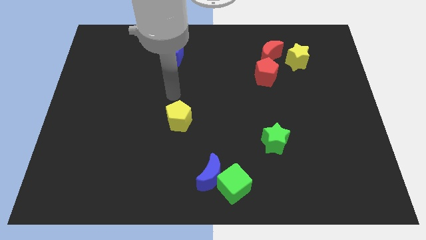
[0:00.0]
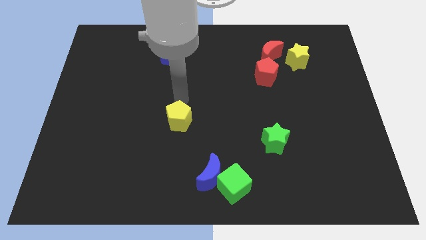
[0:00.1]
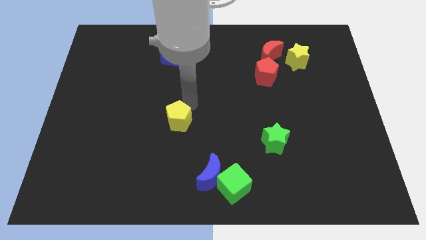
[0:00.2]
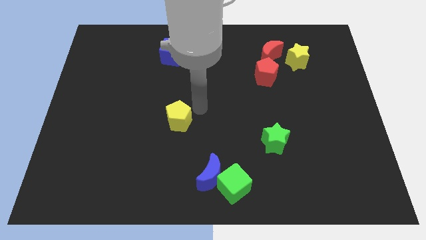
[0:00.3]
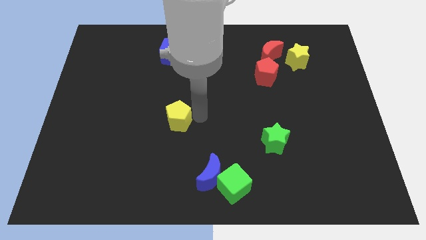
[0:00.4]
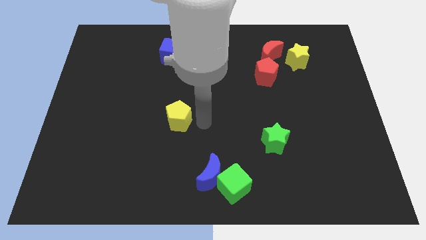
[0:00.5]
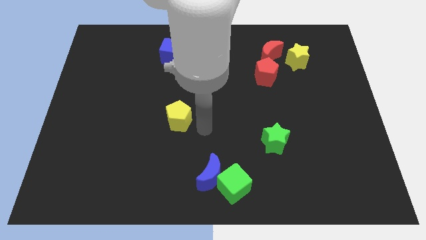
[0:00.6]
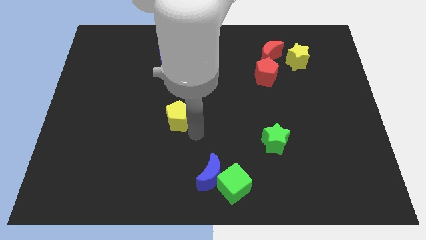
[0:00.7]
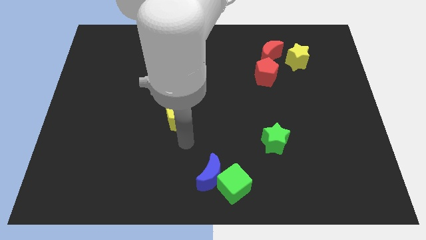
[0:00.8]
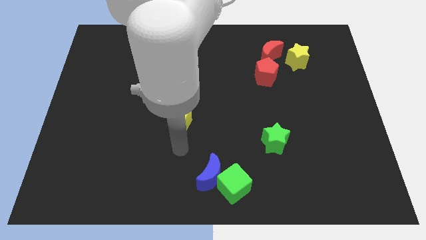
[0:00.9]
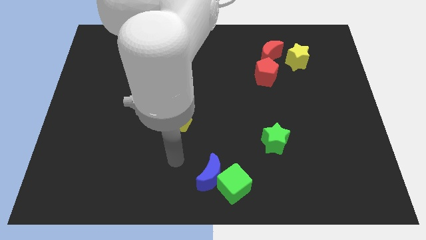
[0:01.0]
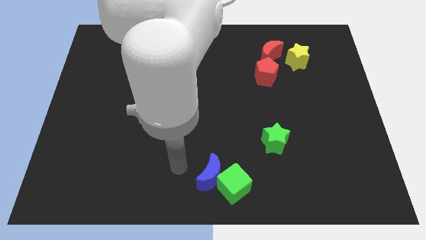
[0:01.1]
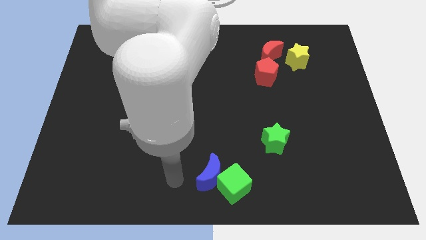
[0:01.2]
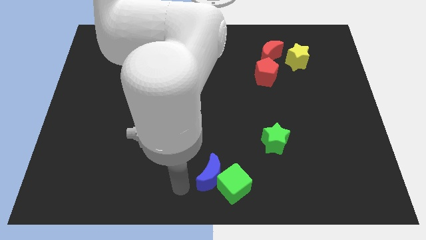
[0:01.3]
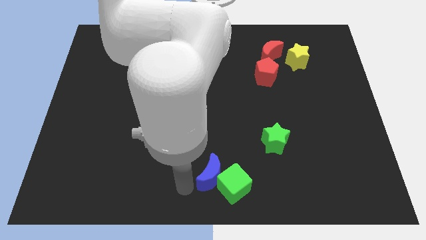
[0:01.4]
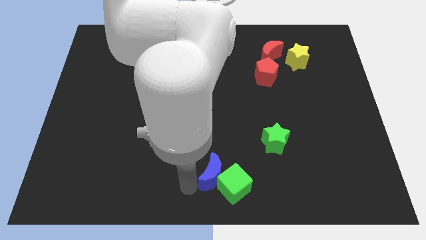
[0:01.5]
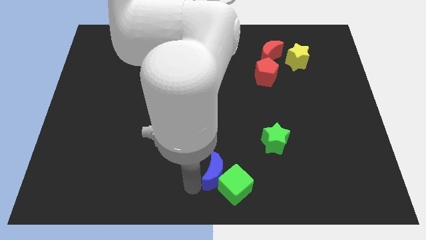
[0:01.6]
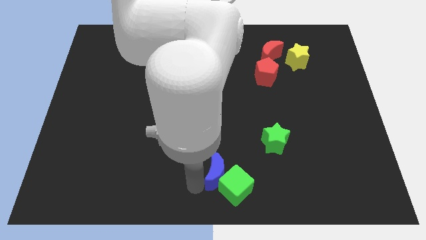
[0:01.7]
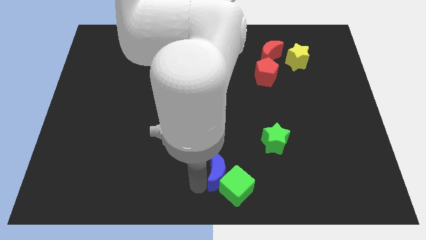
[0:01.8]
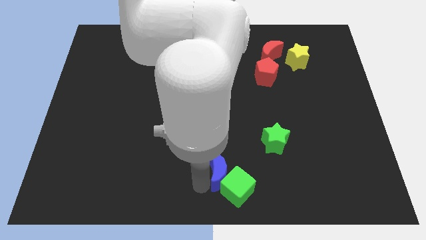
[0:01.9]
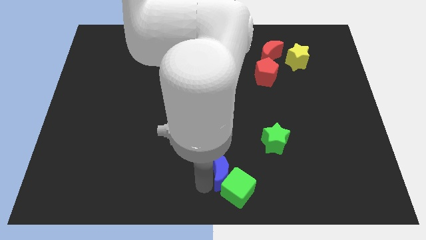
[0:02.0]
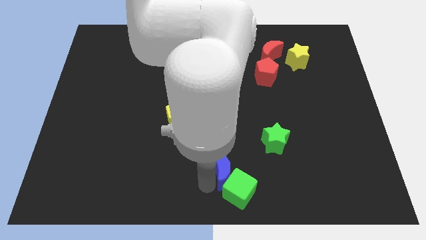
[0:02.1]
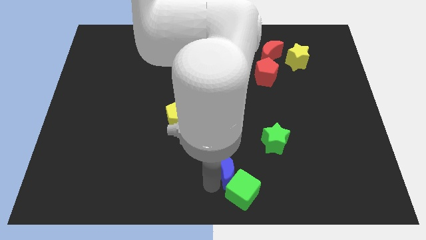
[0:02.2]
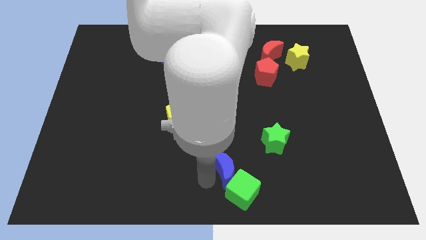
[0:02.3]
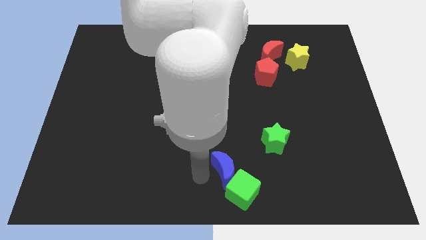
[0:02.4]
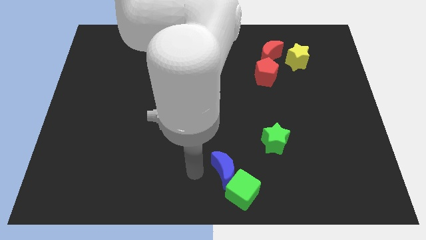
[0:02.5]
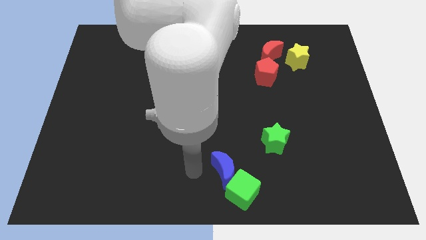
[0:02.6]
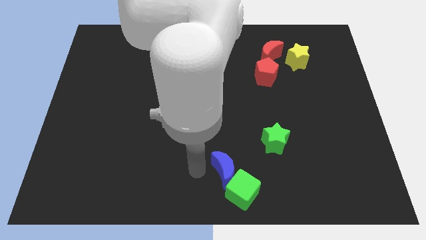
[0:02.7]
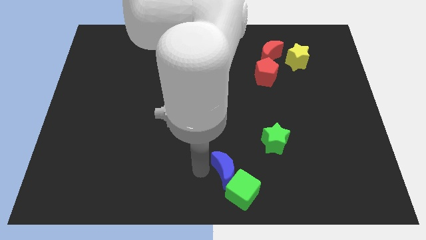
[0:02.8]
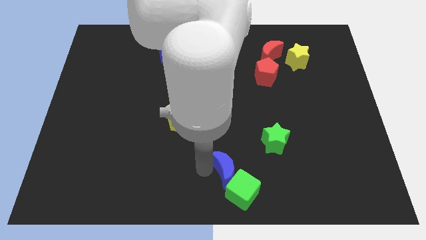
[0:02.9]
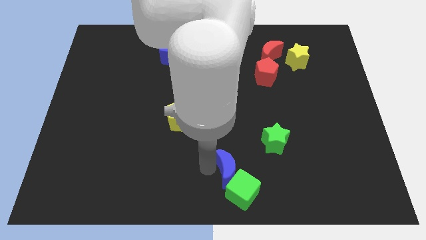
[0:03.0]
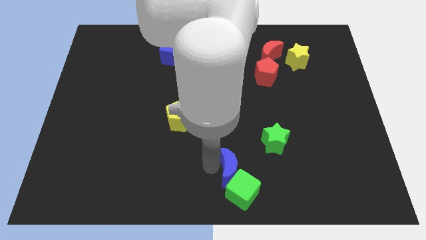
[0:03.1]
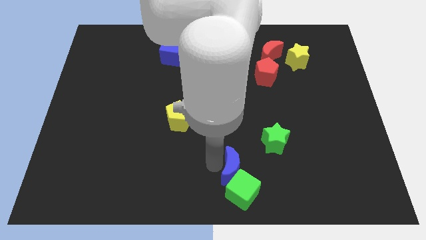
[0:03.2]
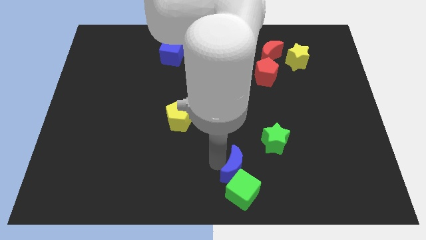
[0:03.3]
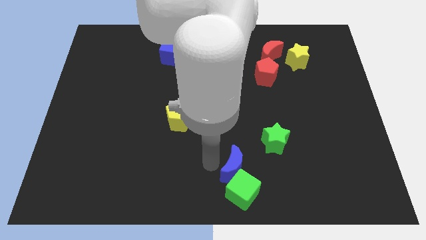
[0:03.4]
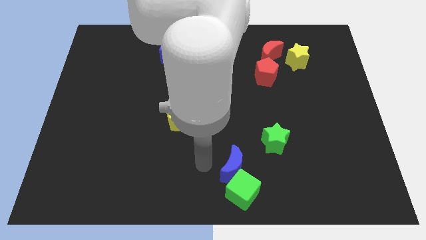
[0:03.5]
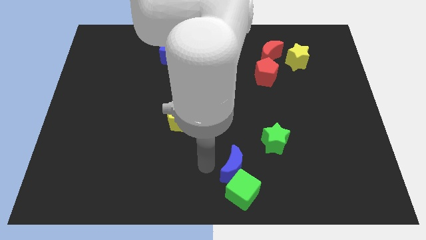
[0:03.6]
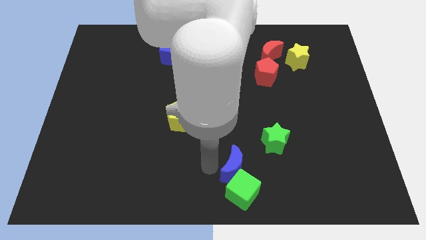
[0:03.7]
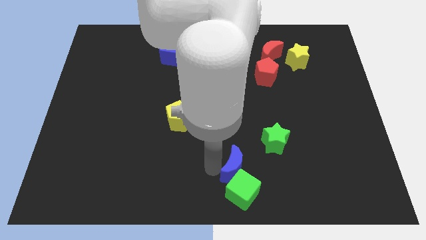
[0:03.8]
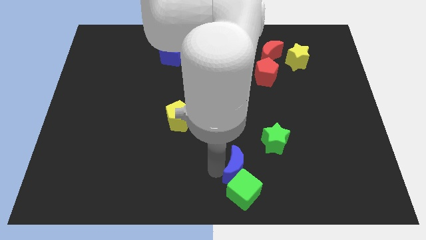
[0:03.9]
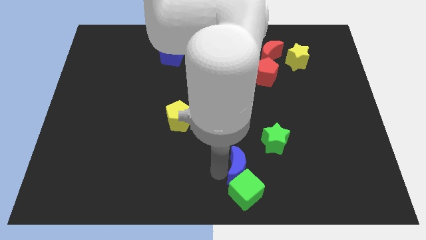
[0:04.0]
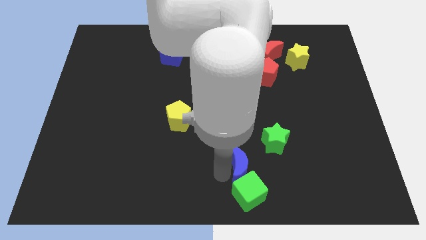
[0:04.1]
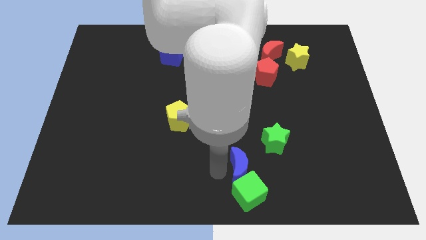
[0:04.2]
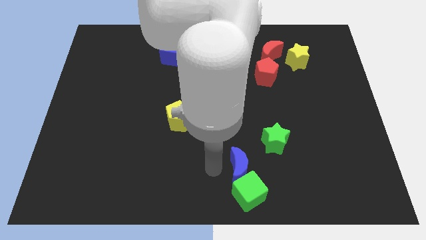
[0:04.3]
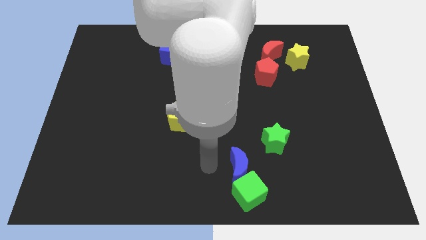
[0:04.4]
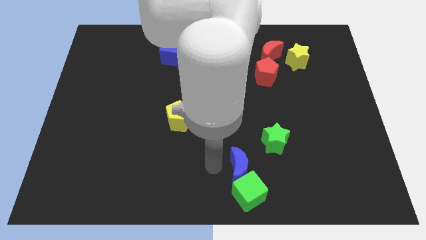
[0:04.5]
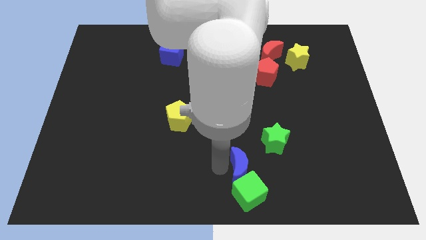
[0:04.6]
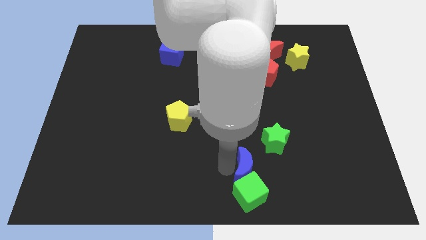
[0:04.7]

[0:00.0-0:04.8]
slide the blue moon a little to the right

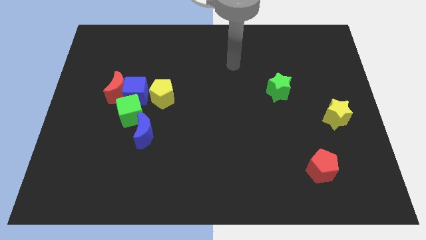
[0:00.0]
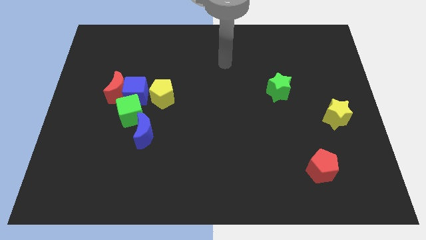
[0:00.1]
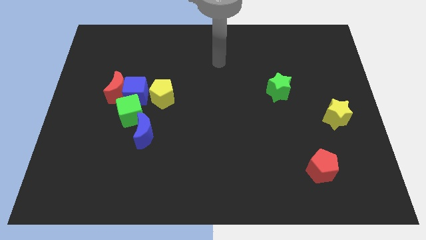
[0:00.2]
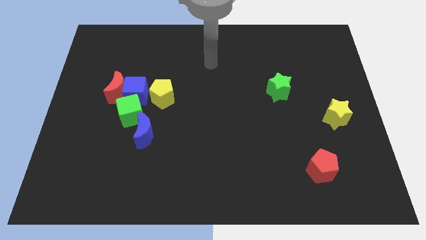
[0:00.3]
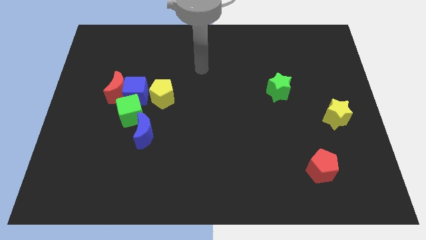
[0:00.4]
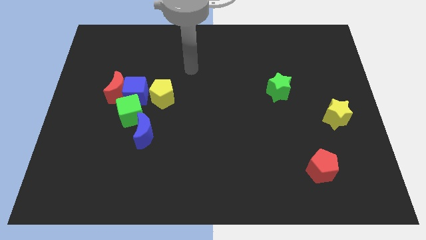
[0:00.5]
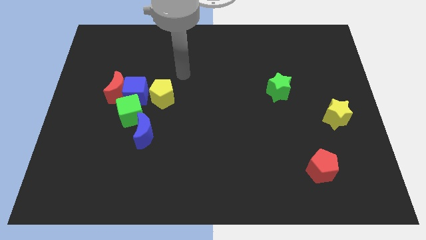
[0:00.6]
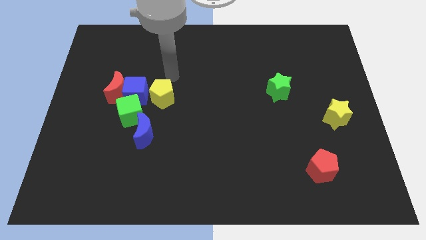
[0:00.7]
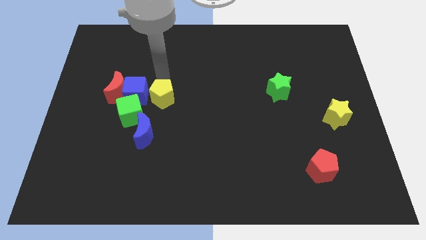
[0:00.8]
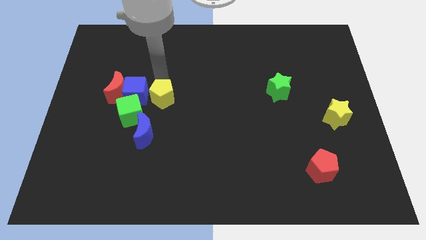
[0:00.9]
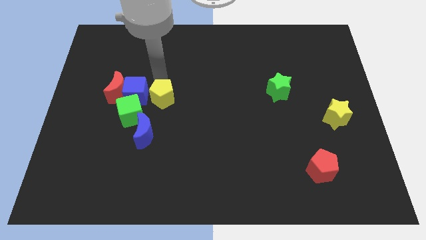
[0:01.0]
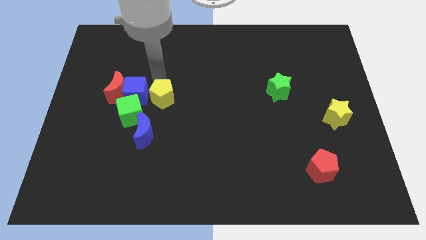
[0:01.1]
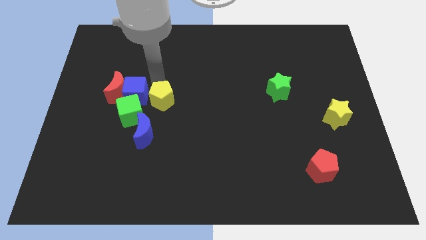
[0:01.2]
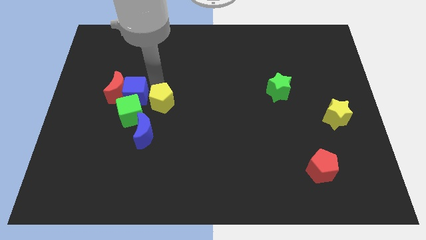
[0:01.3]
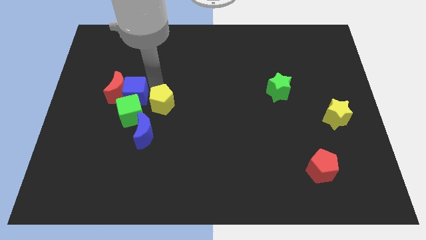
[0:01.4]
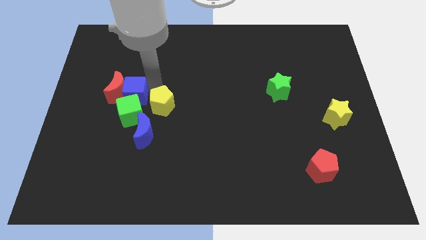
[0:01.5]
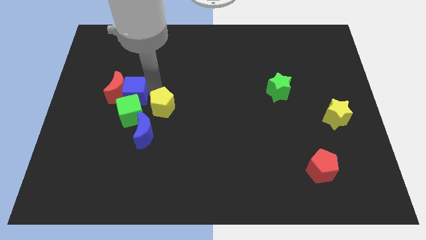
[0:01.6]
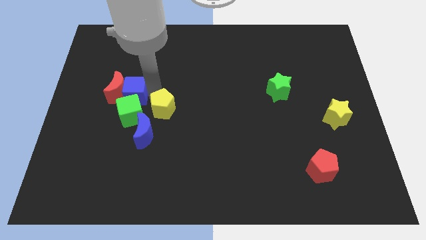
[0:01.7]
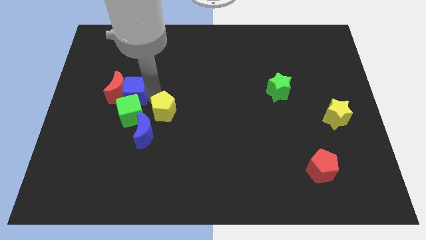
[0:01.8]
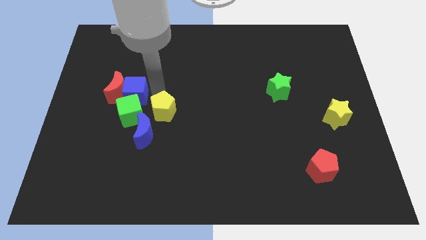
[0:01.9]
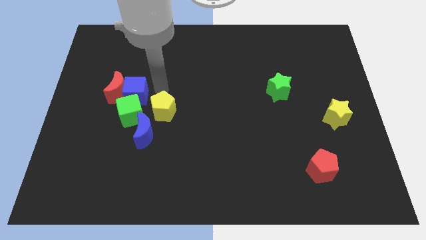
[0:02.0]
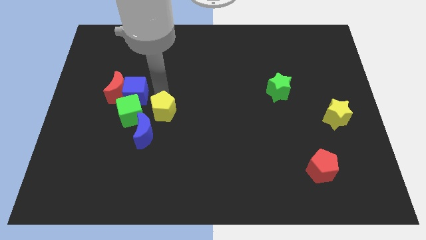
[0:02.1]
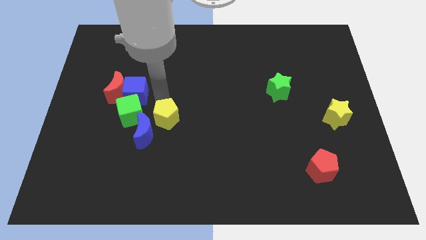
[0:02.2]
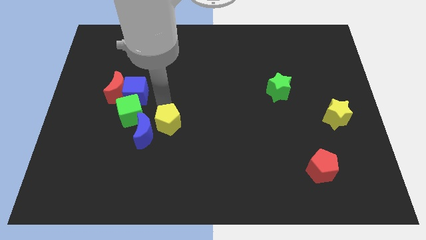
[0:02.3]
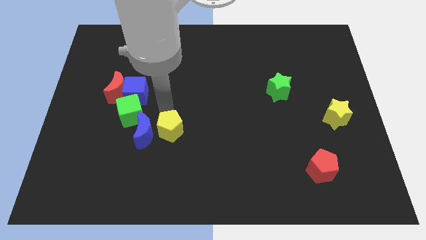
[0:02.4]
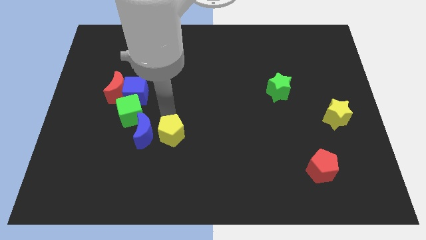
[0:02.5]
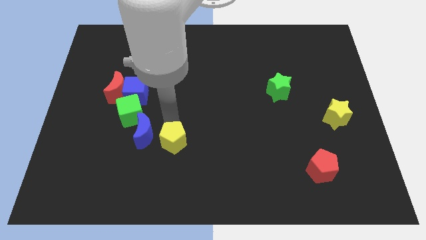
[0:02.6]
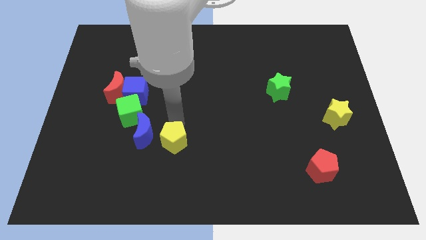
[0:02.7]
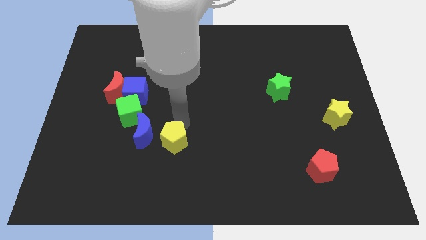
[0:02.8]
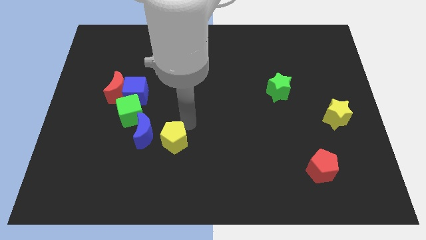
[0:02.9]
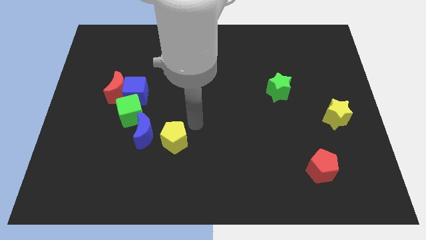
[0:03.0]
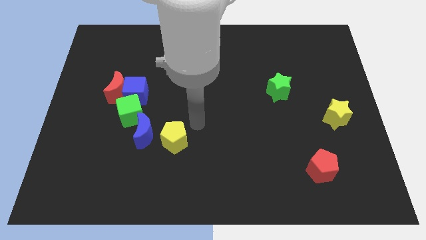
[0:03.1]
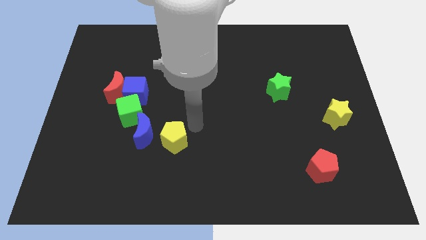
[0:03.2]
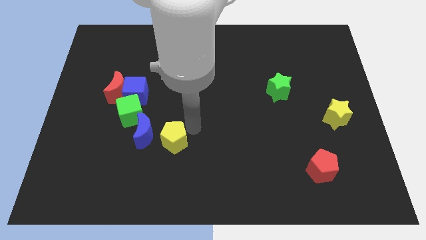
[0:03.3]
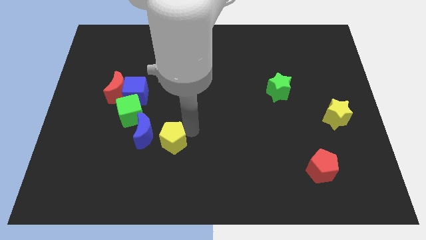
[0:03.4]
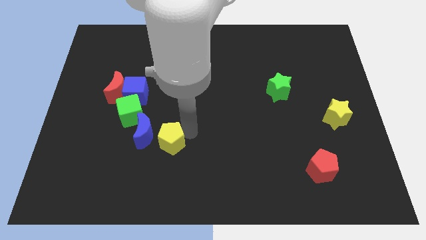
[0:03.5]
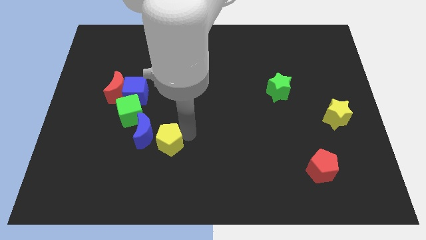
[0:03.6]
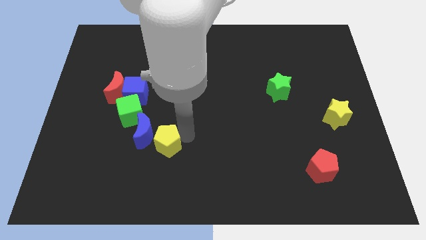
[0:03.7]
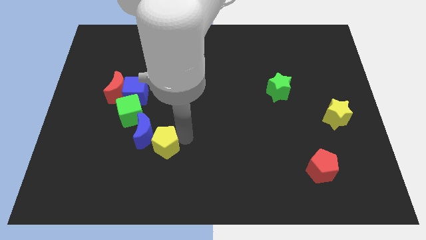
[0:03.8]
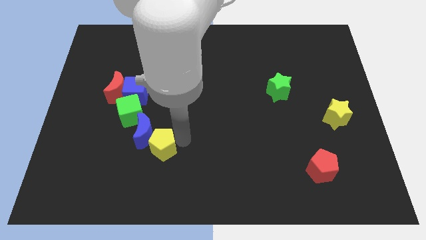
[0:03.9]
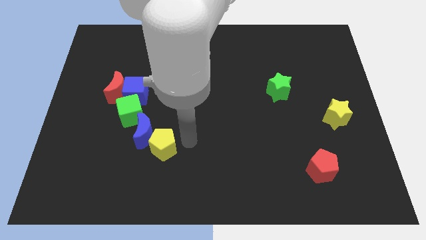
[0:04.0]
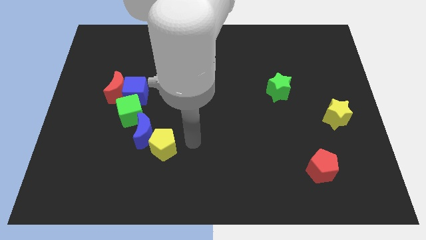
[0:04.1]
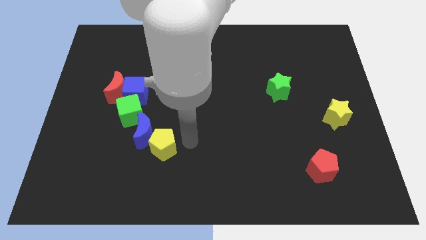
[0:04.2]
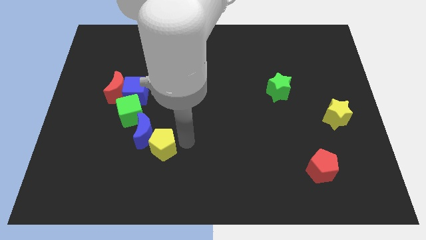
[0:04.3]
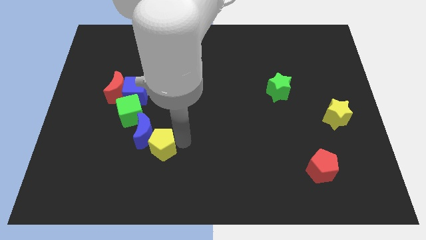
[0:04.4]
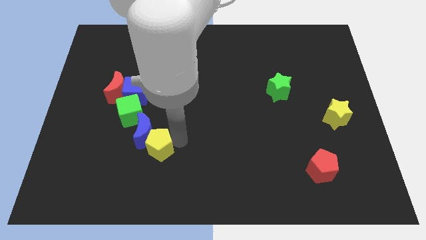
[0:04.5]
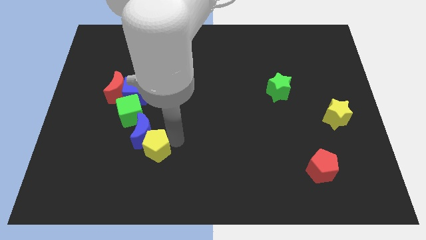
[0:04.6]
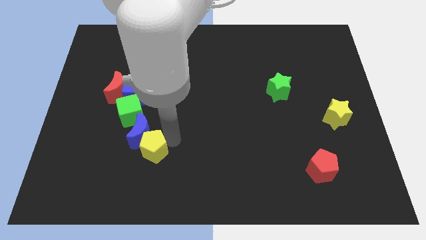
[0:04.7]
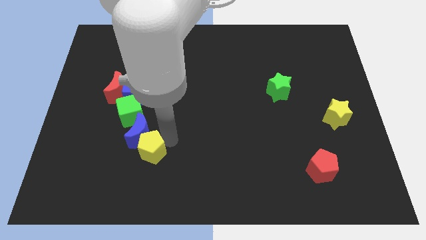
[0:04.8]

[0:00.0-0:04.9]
slightly slide the yellow pentagon downwards and then to the left
